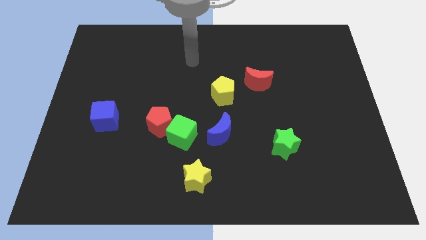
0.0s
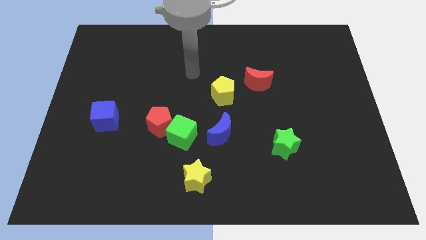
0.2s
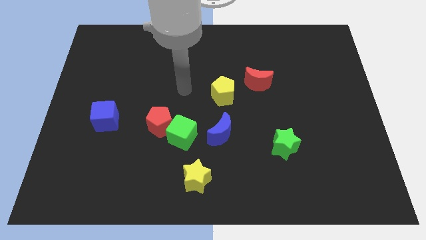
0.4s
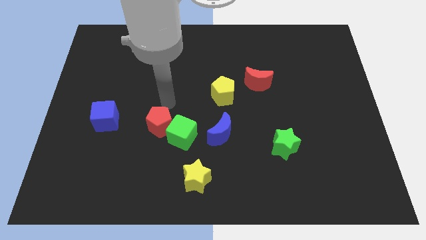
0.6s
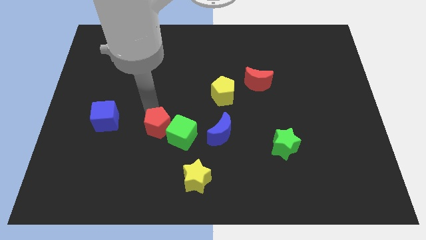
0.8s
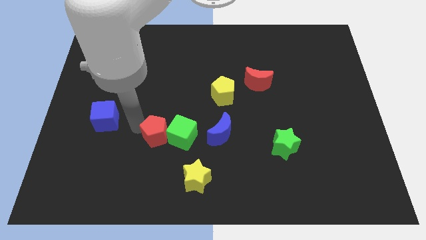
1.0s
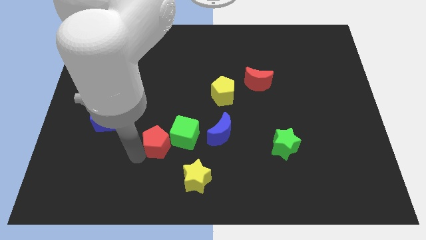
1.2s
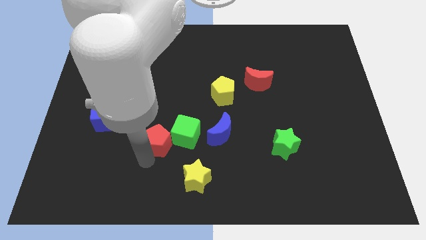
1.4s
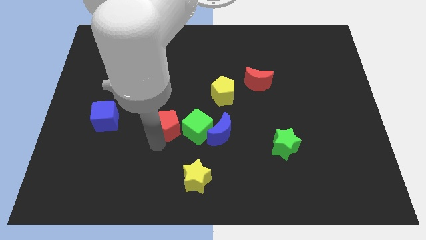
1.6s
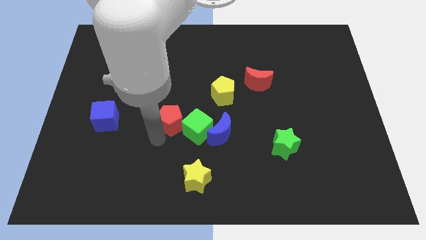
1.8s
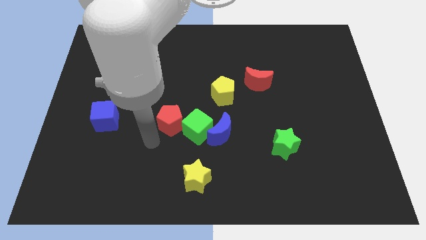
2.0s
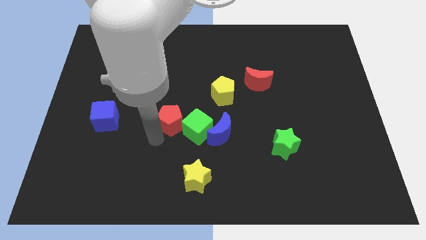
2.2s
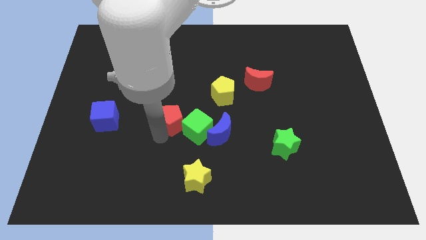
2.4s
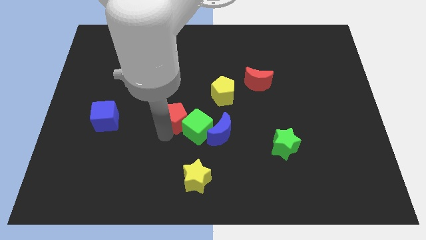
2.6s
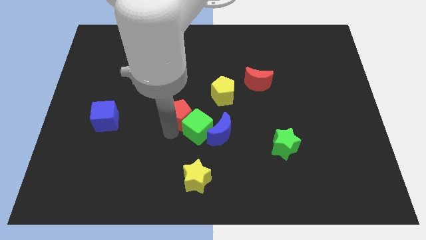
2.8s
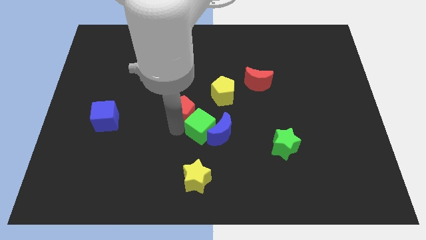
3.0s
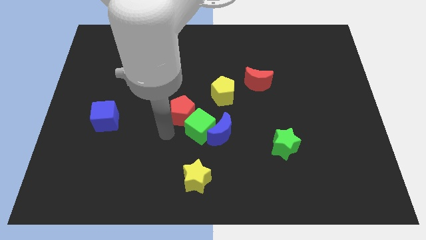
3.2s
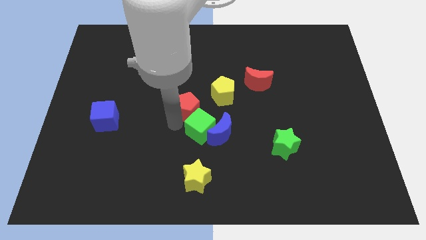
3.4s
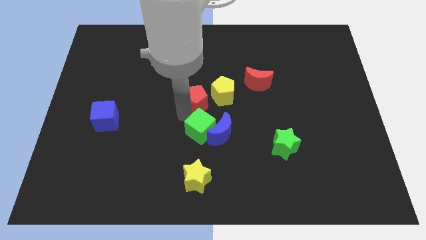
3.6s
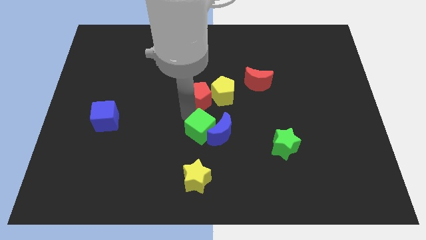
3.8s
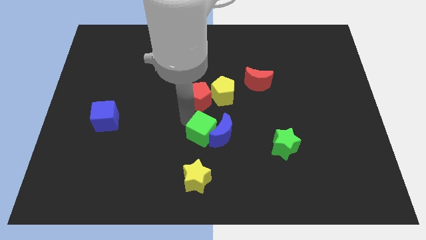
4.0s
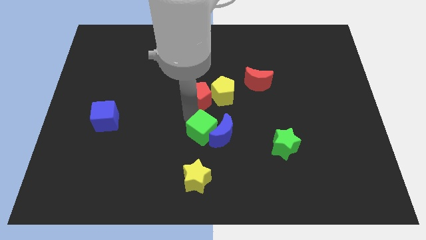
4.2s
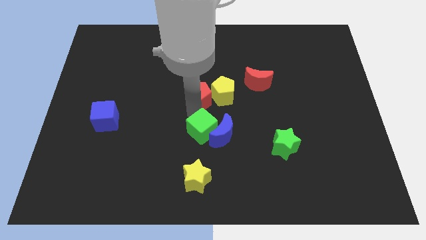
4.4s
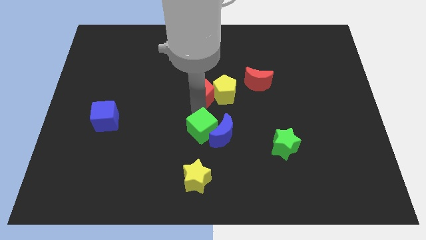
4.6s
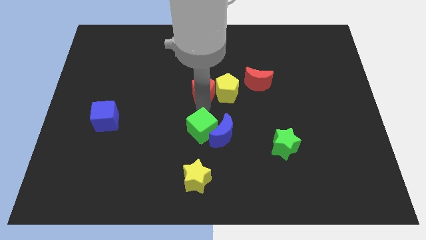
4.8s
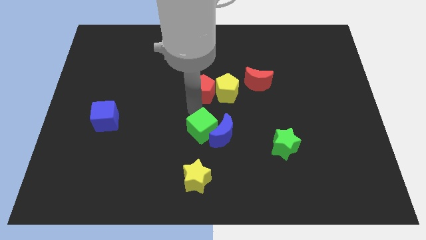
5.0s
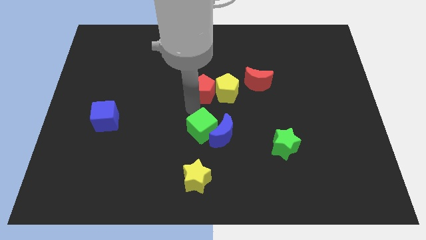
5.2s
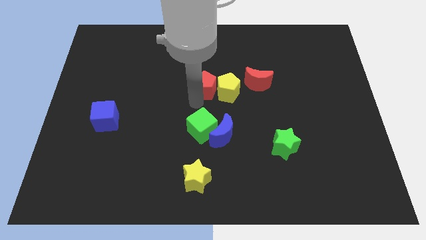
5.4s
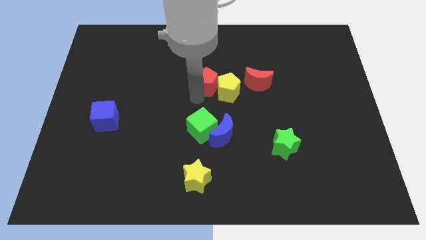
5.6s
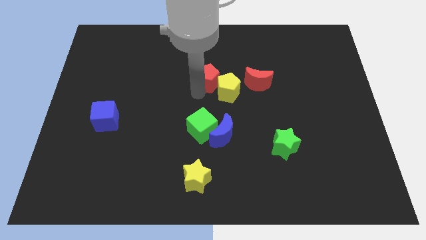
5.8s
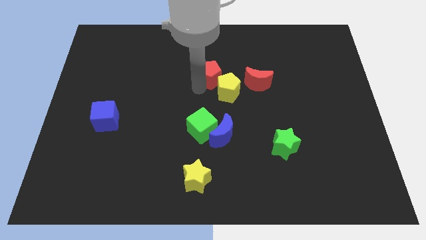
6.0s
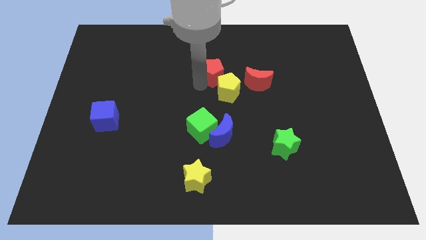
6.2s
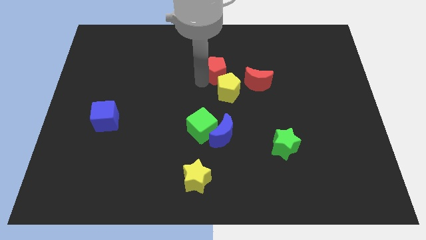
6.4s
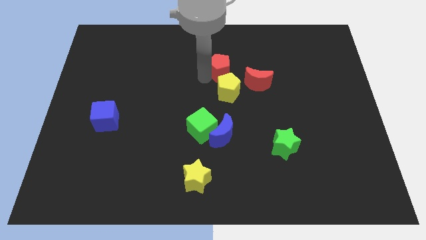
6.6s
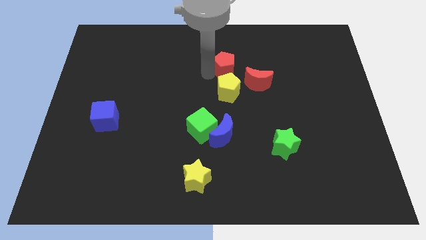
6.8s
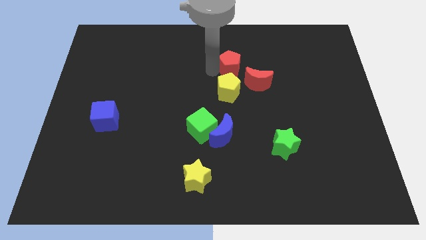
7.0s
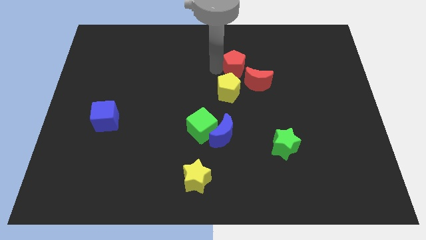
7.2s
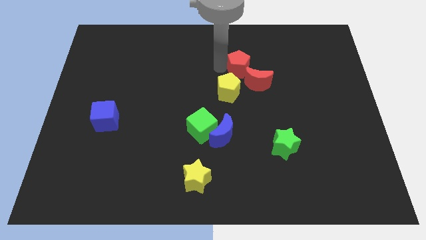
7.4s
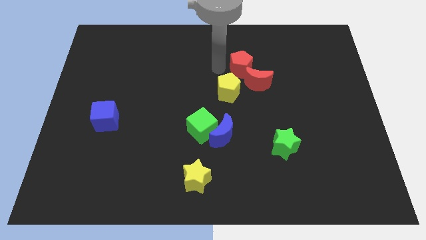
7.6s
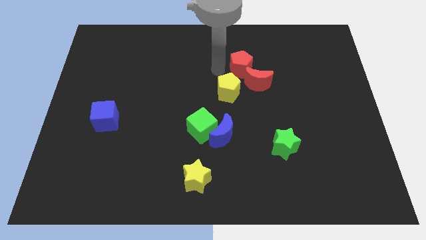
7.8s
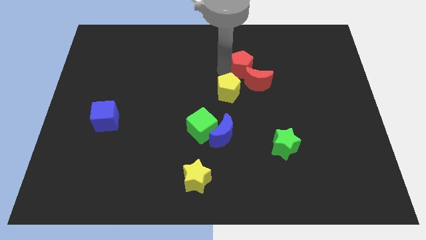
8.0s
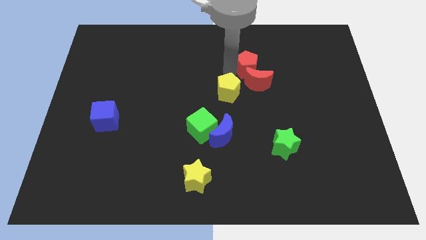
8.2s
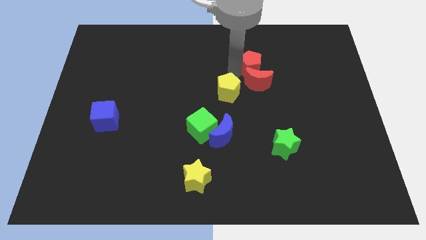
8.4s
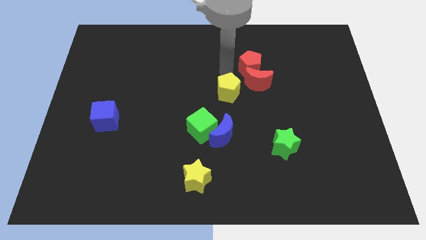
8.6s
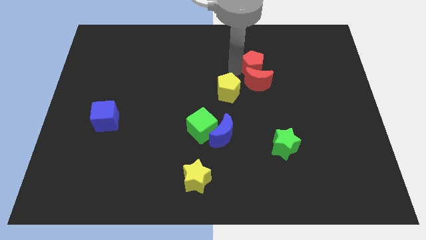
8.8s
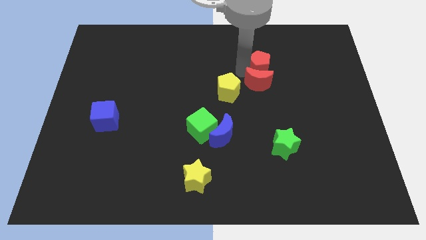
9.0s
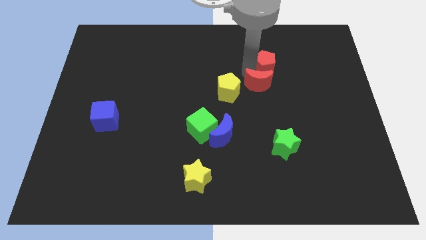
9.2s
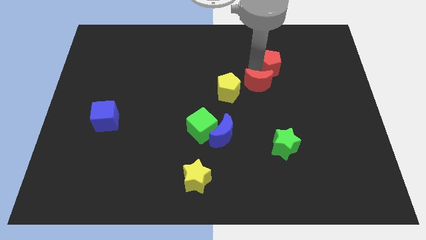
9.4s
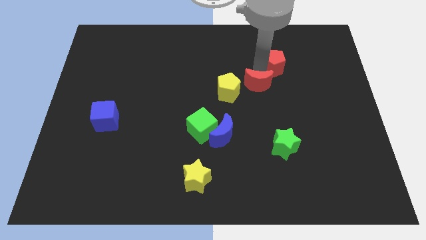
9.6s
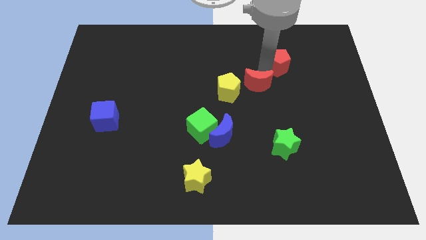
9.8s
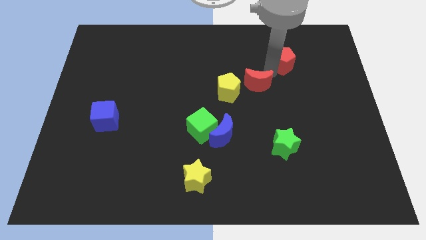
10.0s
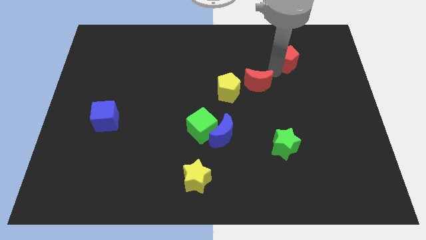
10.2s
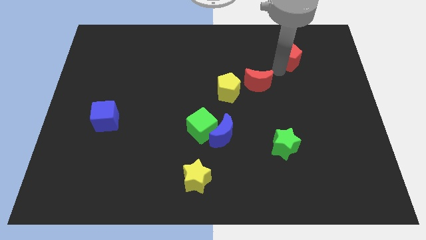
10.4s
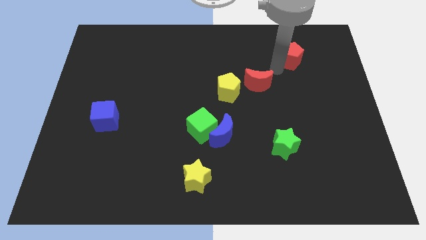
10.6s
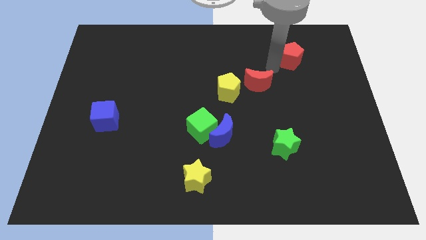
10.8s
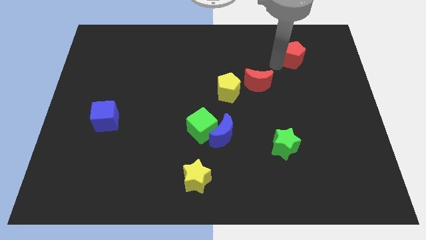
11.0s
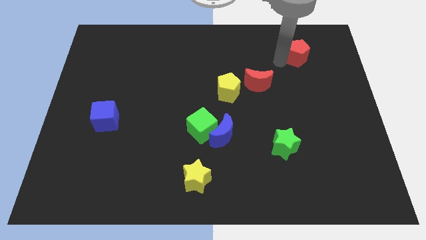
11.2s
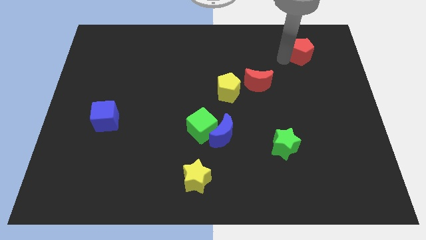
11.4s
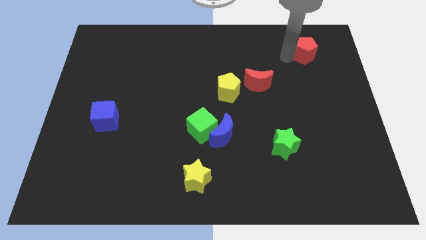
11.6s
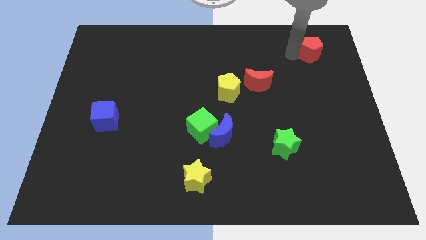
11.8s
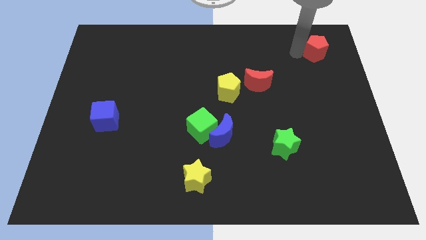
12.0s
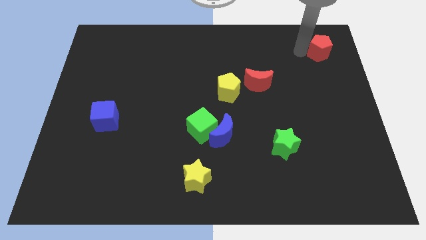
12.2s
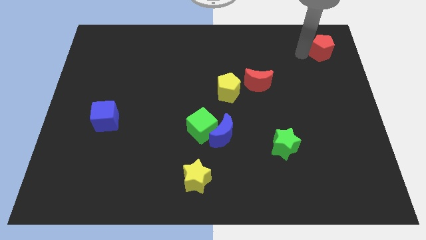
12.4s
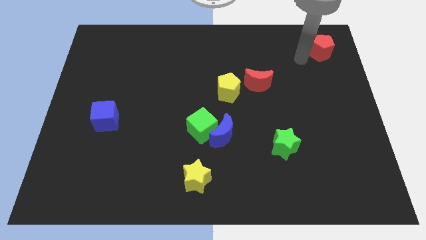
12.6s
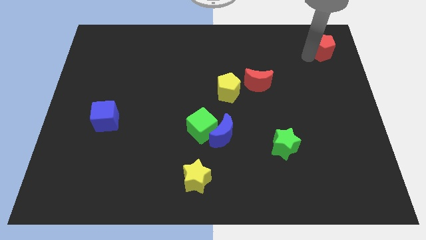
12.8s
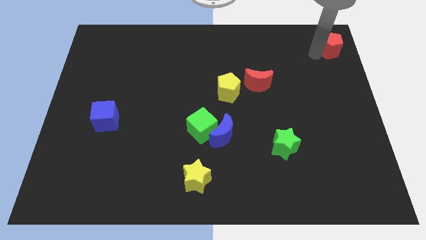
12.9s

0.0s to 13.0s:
move the red pentagon to the top right of the board
